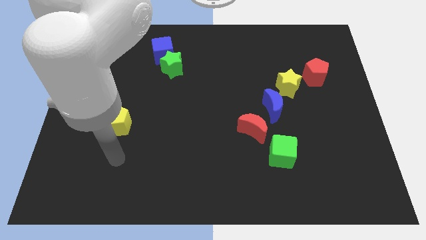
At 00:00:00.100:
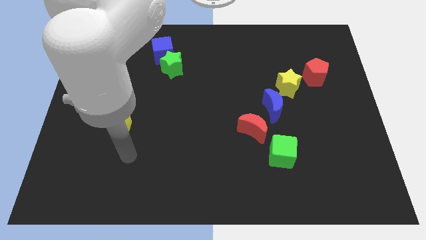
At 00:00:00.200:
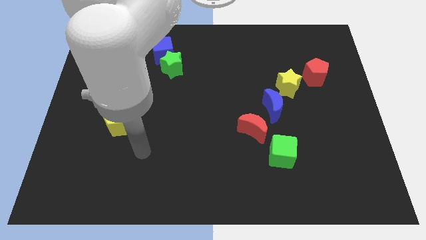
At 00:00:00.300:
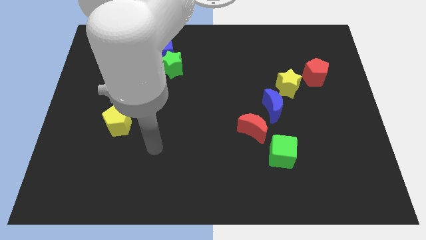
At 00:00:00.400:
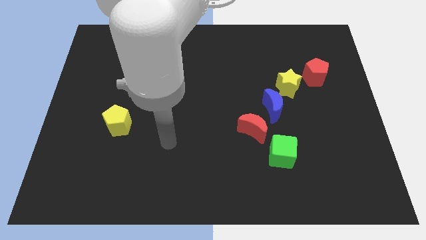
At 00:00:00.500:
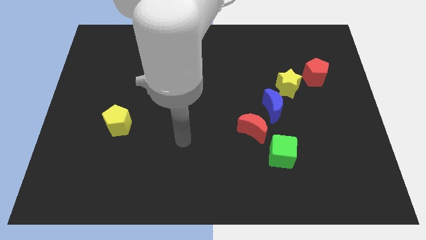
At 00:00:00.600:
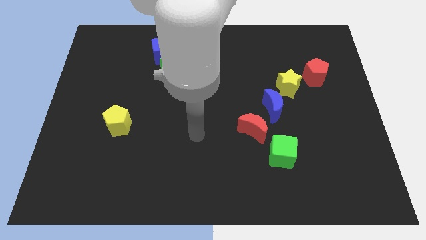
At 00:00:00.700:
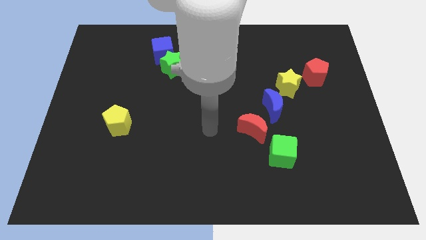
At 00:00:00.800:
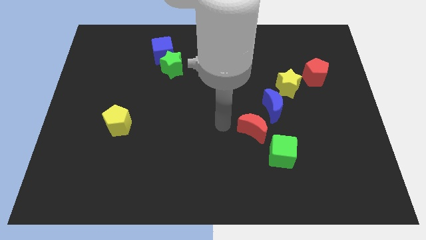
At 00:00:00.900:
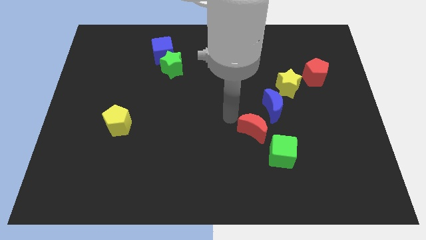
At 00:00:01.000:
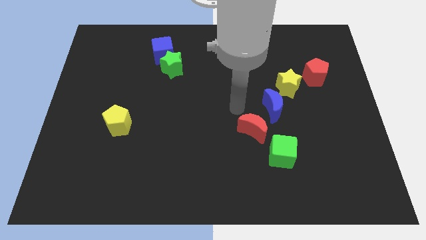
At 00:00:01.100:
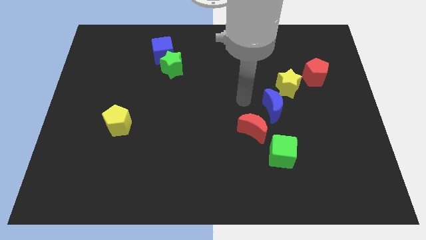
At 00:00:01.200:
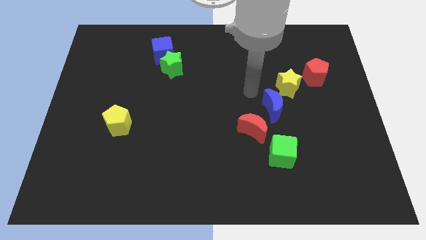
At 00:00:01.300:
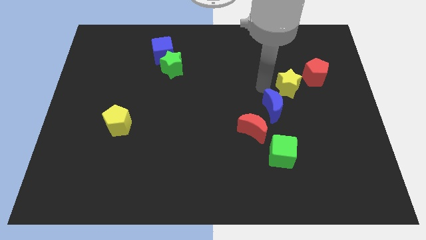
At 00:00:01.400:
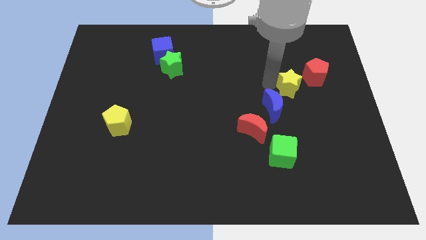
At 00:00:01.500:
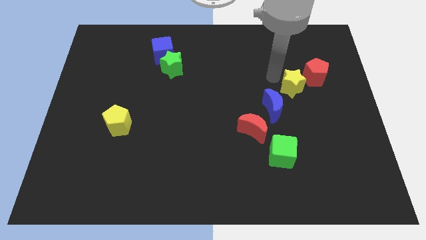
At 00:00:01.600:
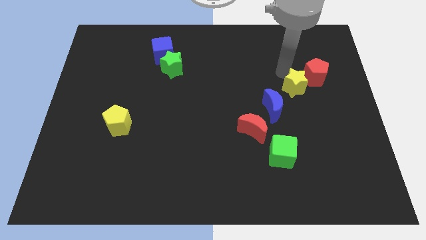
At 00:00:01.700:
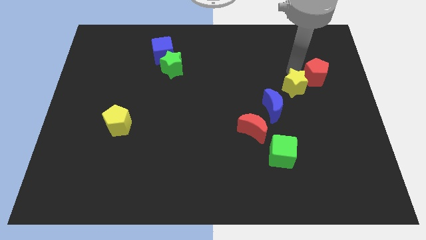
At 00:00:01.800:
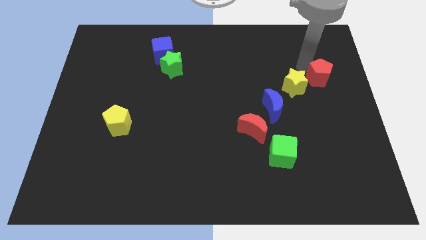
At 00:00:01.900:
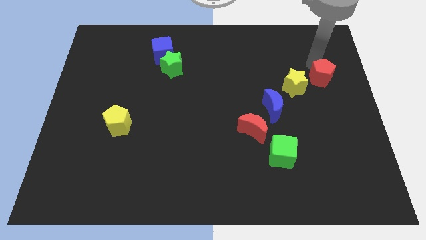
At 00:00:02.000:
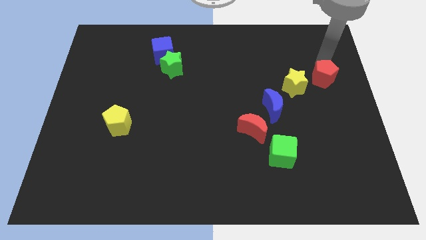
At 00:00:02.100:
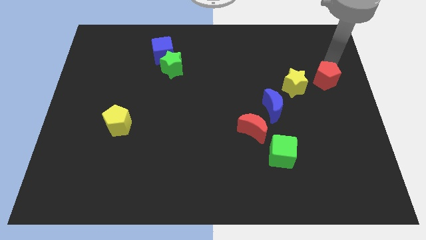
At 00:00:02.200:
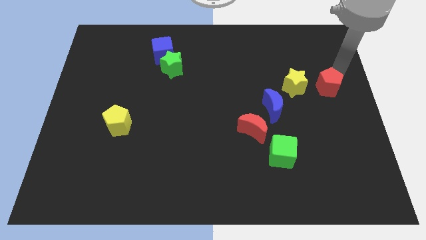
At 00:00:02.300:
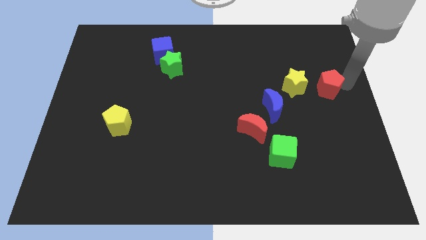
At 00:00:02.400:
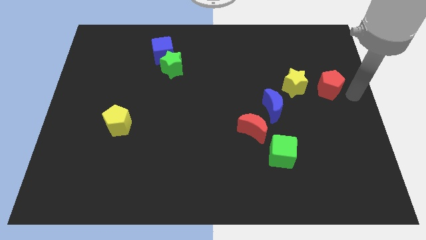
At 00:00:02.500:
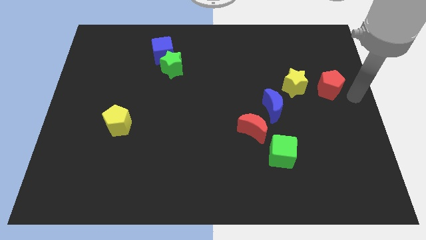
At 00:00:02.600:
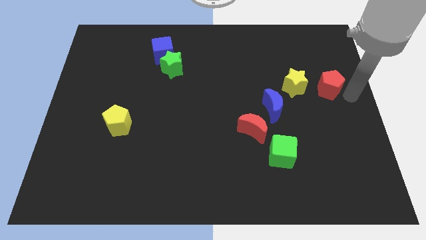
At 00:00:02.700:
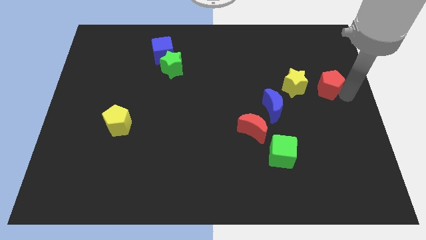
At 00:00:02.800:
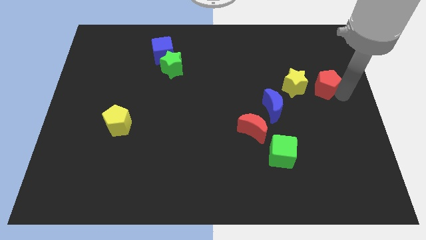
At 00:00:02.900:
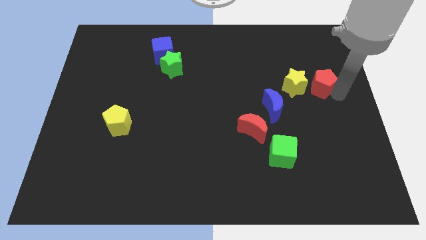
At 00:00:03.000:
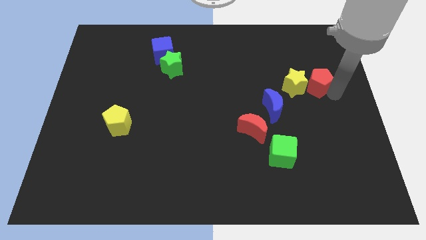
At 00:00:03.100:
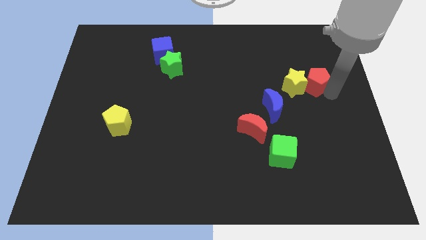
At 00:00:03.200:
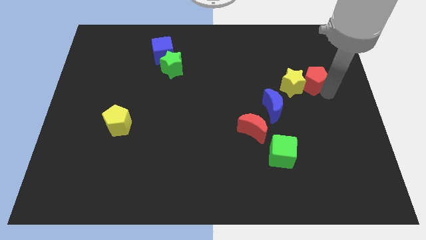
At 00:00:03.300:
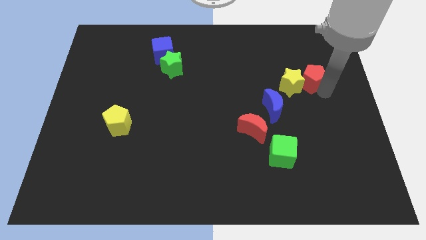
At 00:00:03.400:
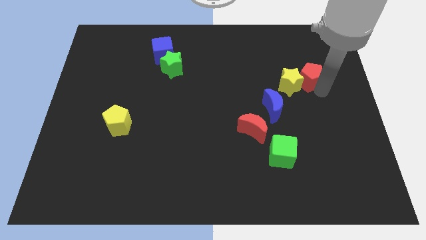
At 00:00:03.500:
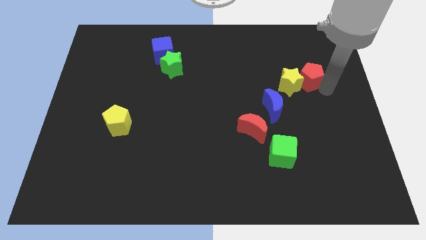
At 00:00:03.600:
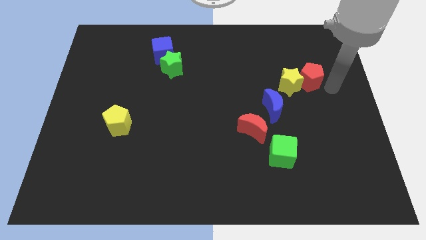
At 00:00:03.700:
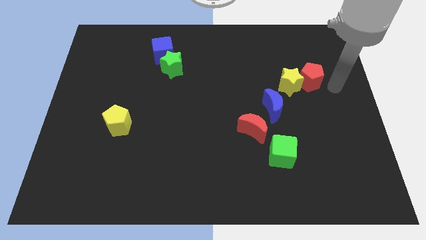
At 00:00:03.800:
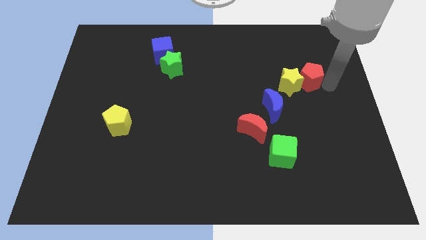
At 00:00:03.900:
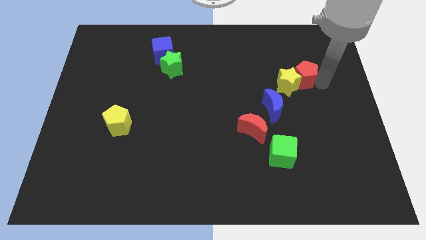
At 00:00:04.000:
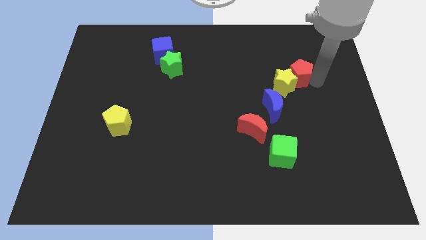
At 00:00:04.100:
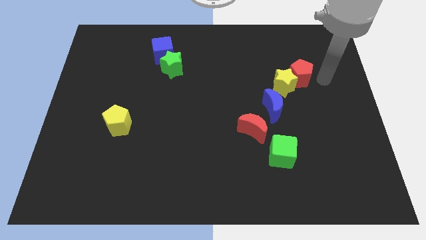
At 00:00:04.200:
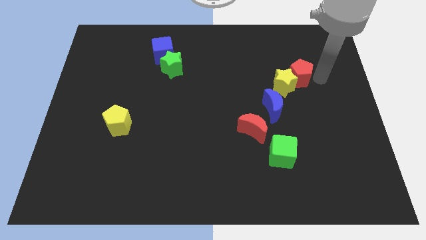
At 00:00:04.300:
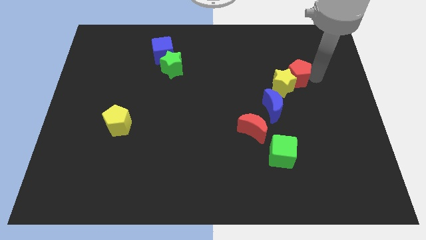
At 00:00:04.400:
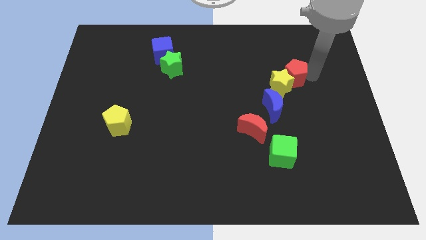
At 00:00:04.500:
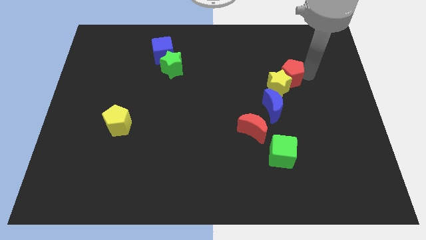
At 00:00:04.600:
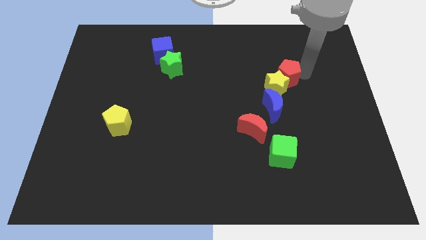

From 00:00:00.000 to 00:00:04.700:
slide the red pentagon left a little

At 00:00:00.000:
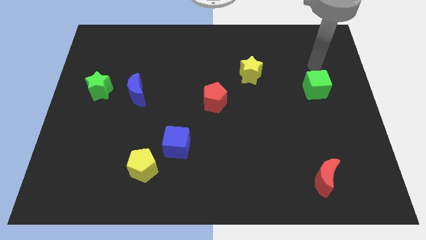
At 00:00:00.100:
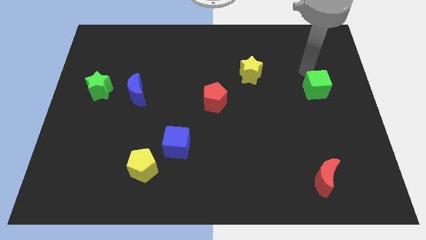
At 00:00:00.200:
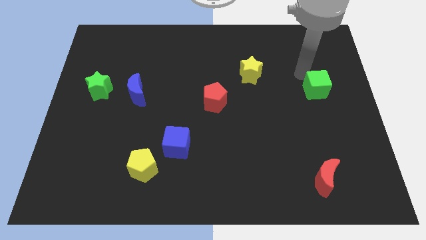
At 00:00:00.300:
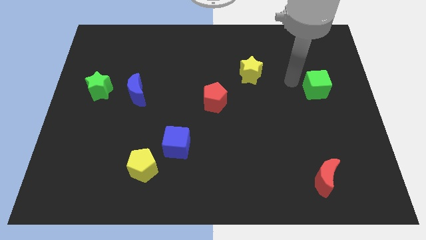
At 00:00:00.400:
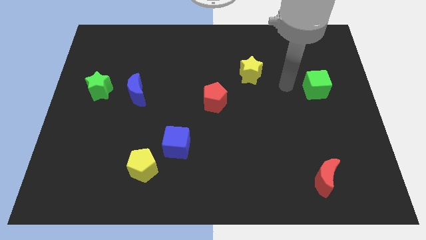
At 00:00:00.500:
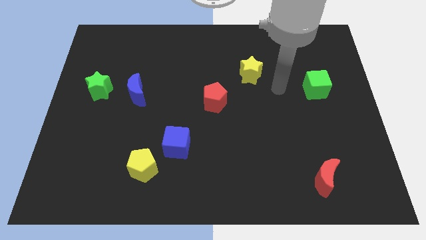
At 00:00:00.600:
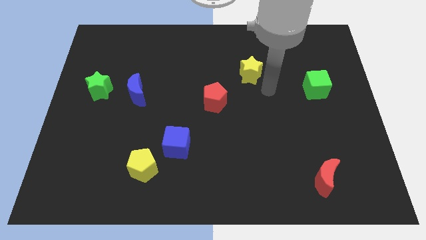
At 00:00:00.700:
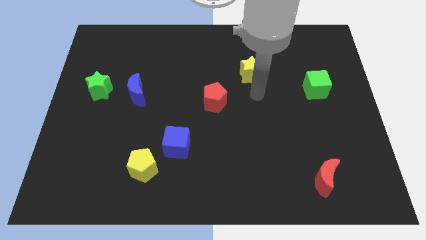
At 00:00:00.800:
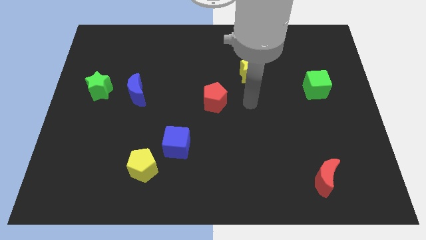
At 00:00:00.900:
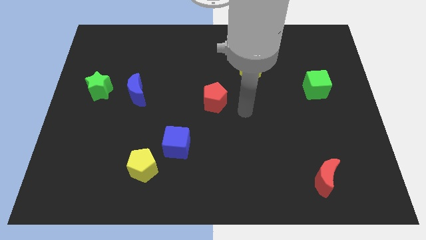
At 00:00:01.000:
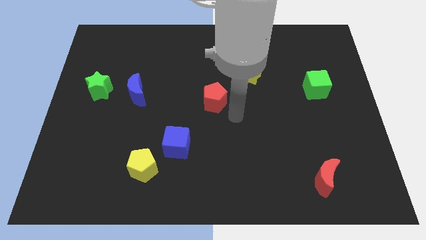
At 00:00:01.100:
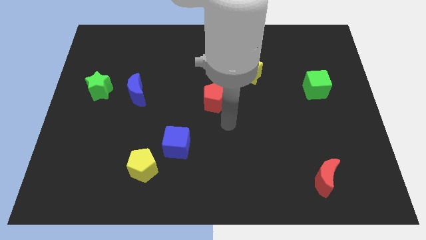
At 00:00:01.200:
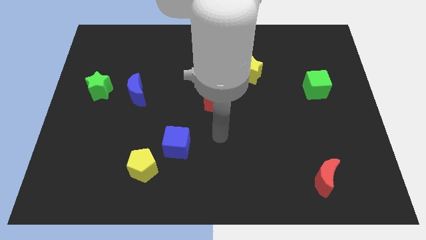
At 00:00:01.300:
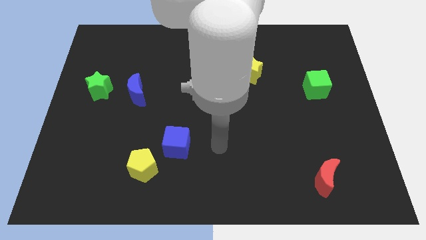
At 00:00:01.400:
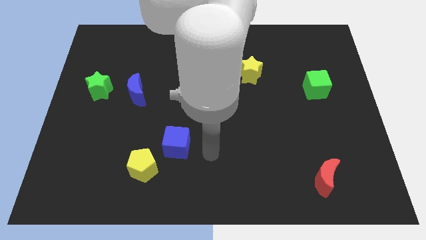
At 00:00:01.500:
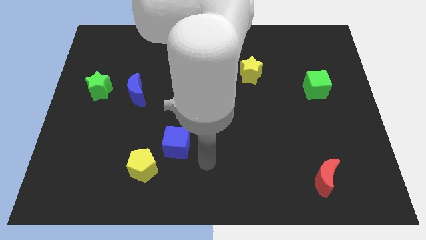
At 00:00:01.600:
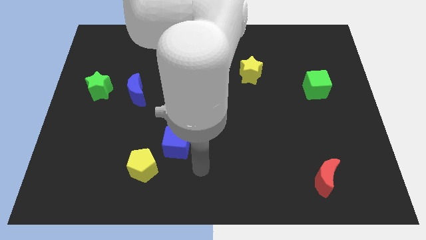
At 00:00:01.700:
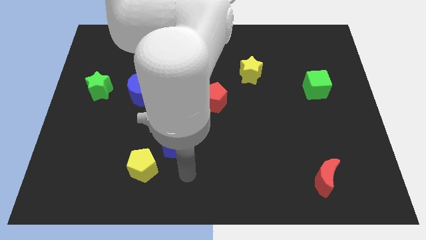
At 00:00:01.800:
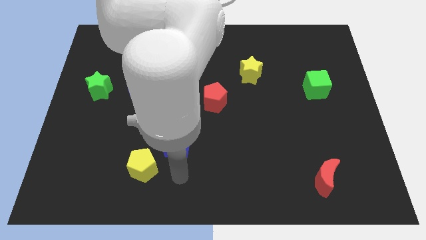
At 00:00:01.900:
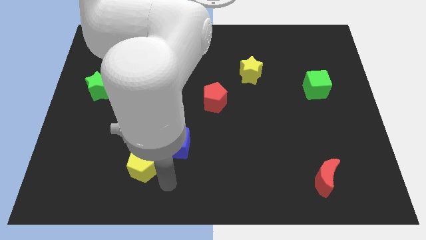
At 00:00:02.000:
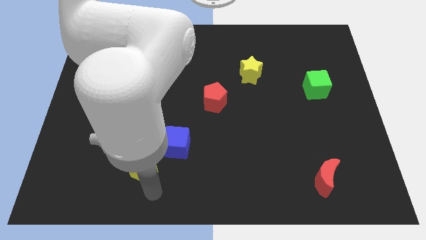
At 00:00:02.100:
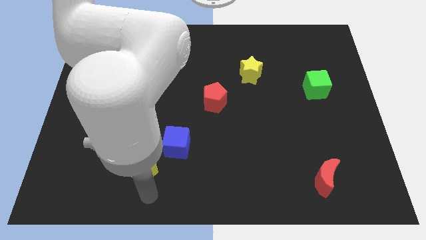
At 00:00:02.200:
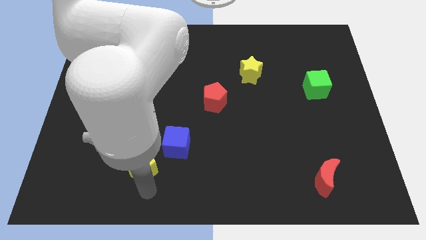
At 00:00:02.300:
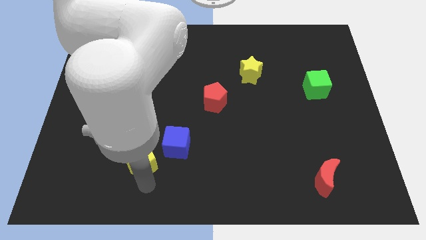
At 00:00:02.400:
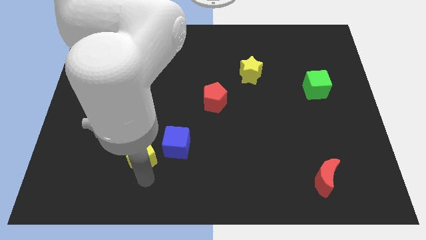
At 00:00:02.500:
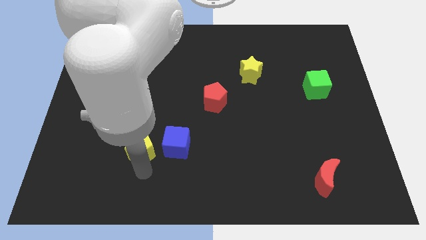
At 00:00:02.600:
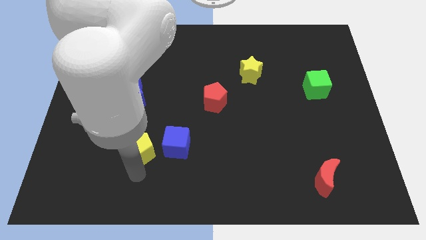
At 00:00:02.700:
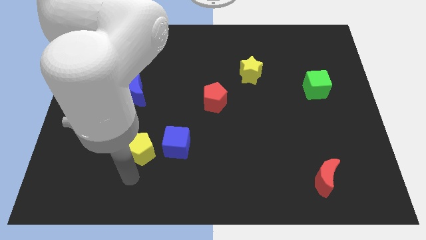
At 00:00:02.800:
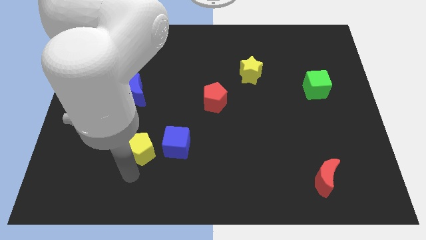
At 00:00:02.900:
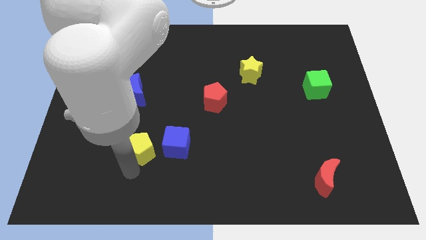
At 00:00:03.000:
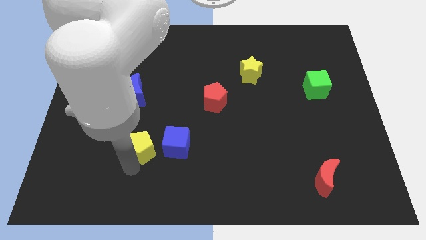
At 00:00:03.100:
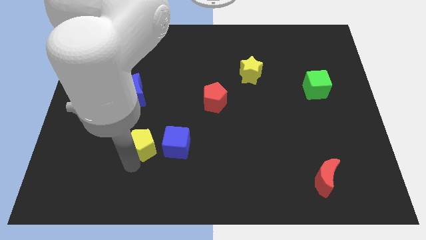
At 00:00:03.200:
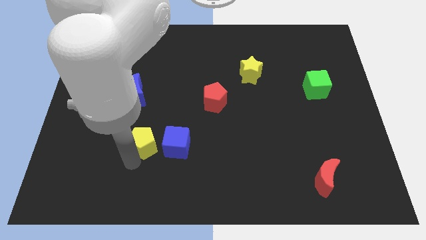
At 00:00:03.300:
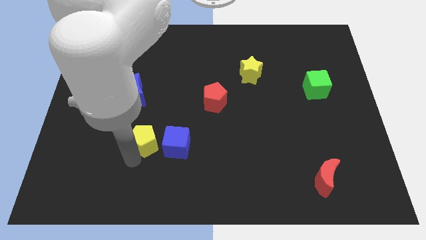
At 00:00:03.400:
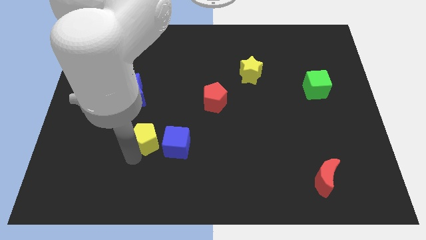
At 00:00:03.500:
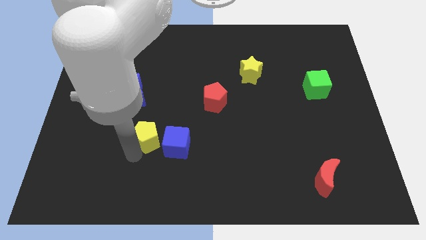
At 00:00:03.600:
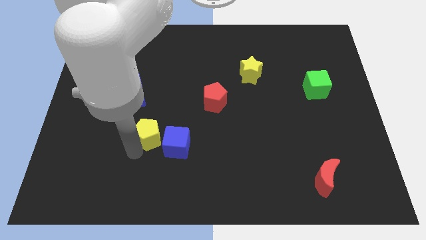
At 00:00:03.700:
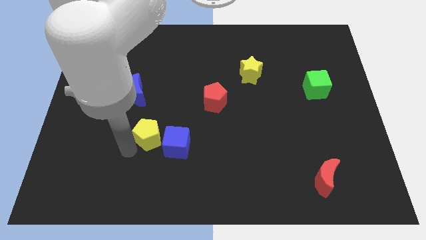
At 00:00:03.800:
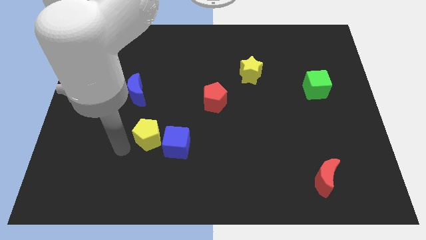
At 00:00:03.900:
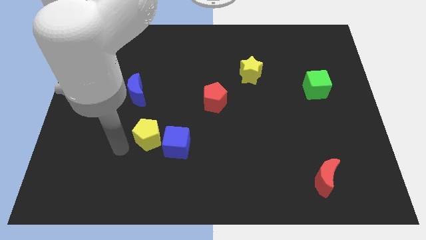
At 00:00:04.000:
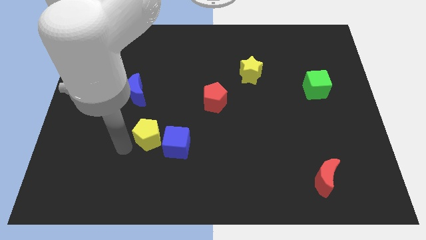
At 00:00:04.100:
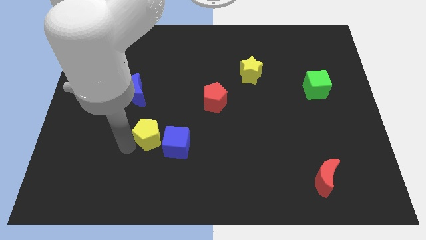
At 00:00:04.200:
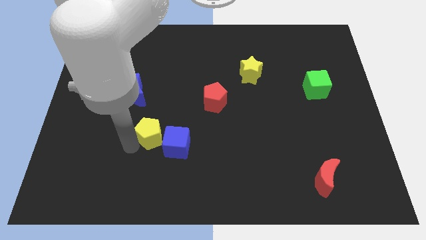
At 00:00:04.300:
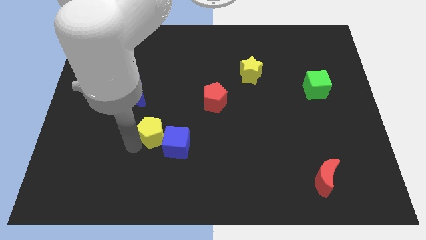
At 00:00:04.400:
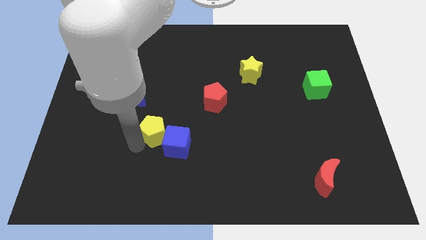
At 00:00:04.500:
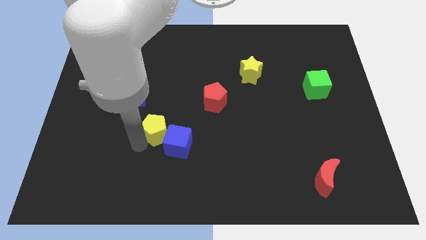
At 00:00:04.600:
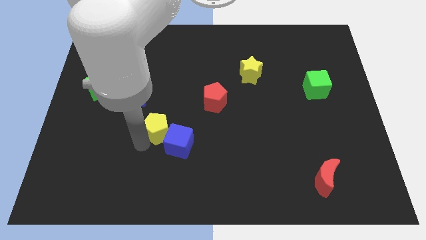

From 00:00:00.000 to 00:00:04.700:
slide the yellow pentagon up and then to the right somewhat
